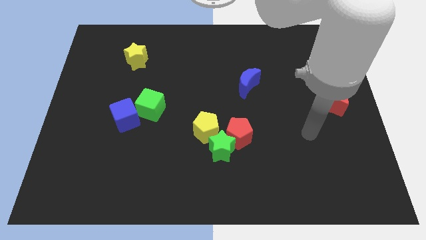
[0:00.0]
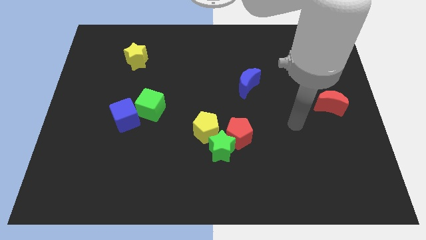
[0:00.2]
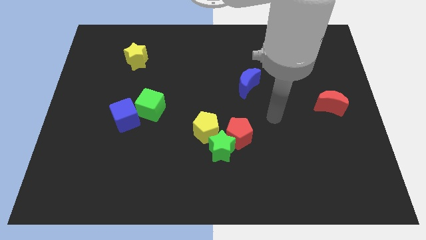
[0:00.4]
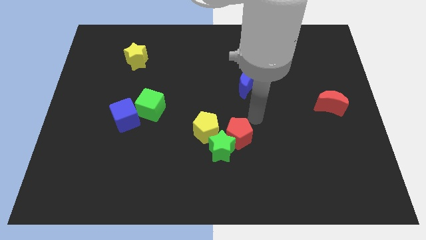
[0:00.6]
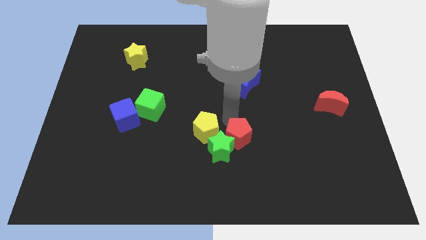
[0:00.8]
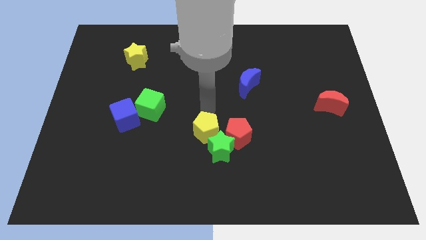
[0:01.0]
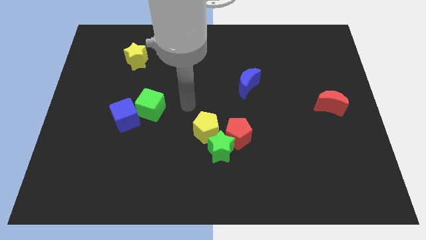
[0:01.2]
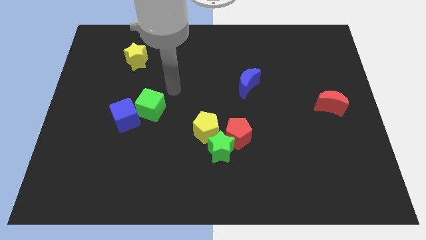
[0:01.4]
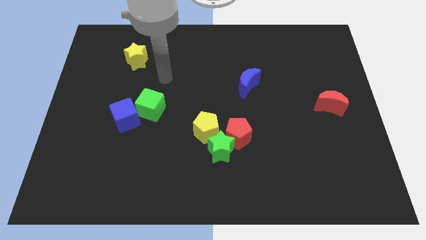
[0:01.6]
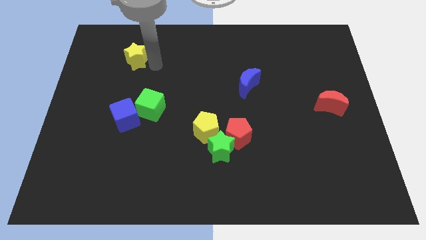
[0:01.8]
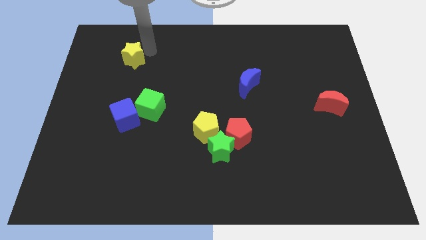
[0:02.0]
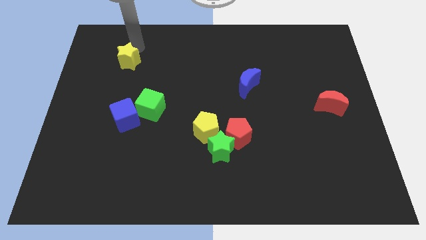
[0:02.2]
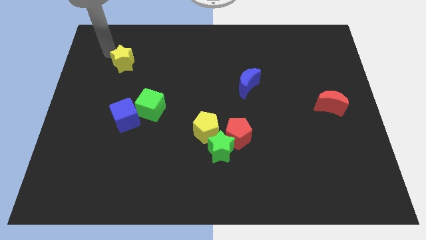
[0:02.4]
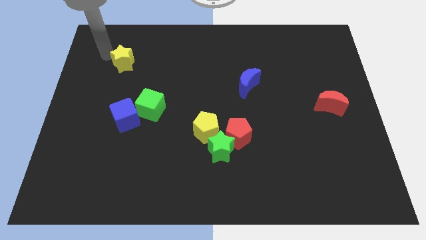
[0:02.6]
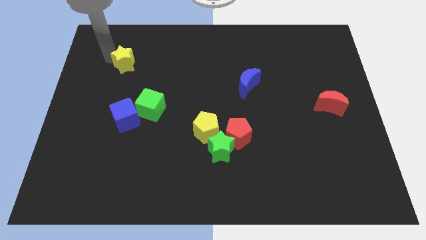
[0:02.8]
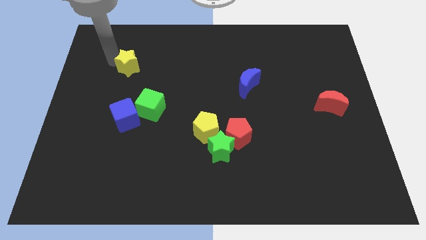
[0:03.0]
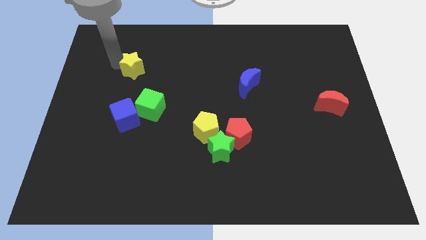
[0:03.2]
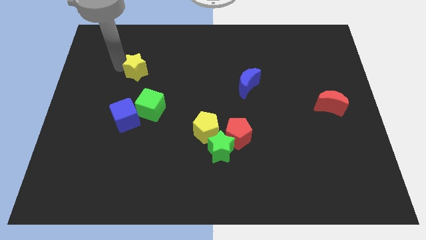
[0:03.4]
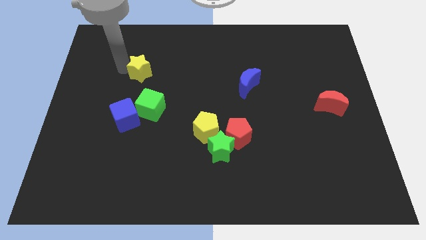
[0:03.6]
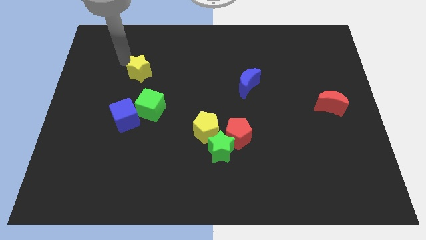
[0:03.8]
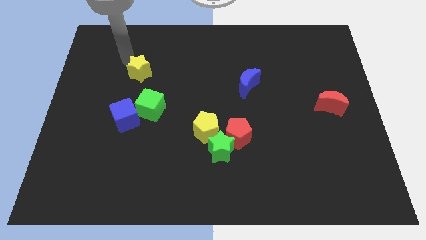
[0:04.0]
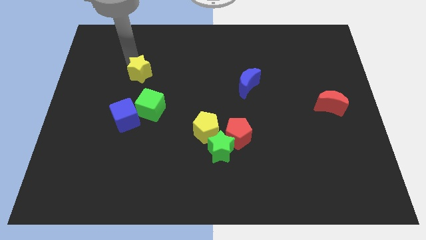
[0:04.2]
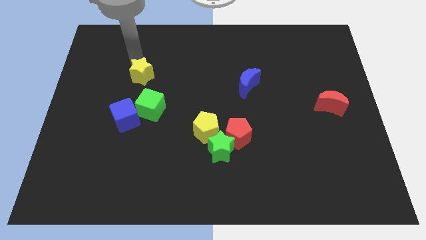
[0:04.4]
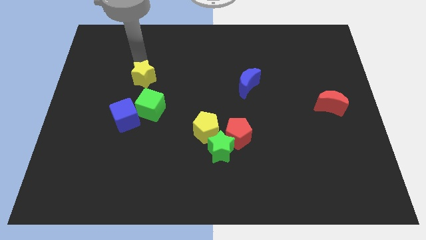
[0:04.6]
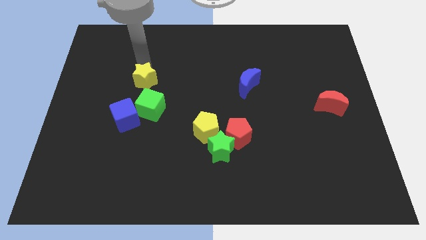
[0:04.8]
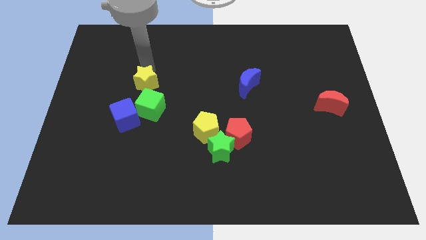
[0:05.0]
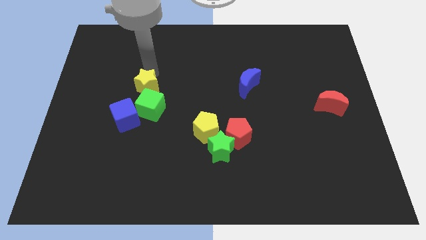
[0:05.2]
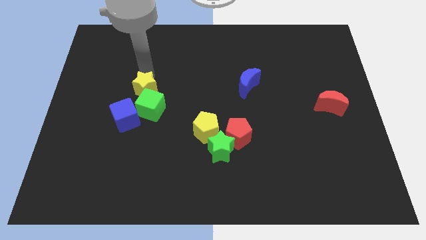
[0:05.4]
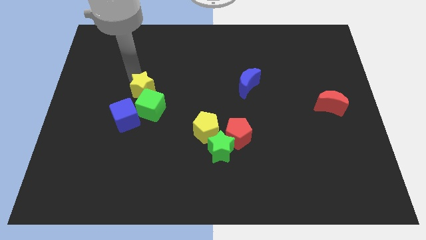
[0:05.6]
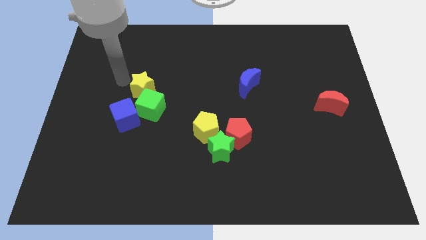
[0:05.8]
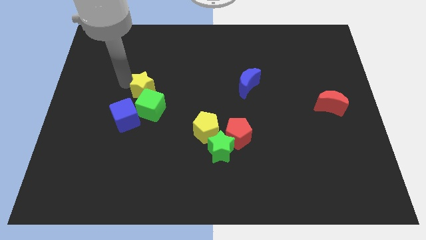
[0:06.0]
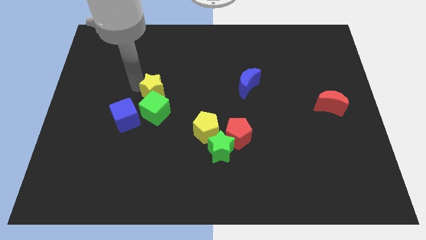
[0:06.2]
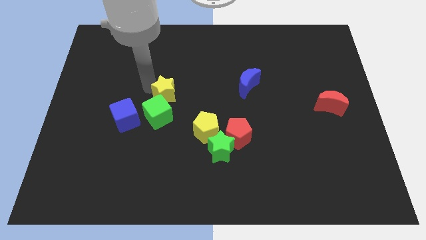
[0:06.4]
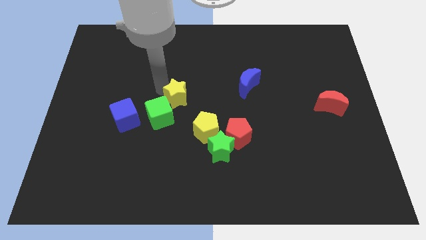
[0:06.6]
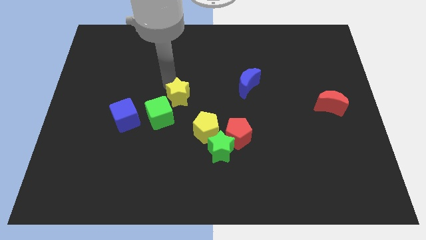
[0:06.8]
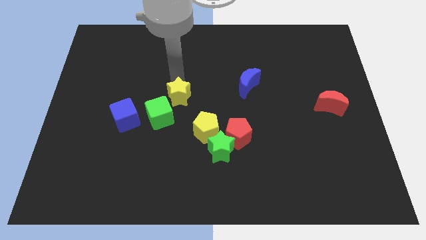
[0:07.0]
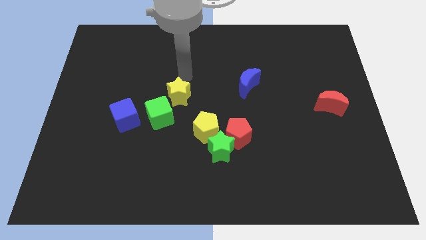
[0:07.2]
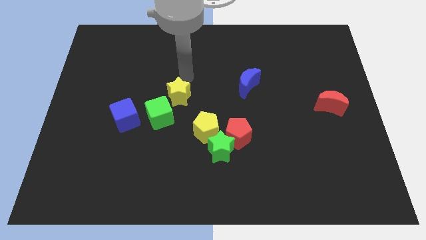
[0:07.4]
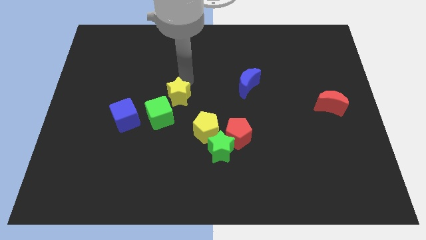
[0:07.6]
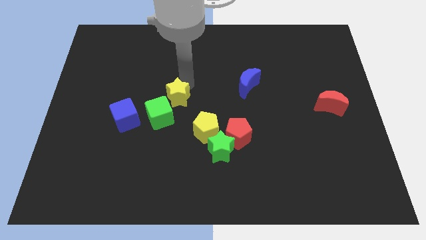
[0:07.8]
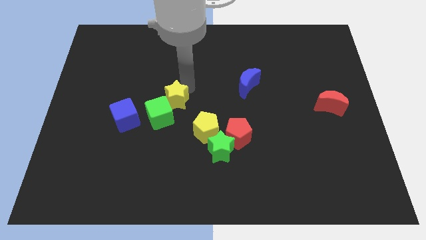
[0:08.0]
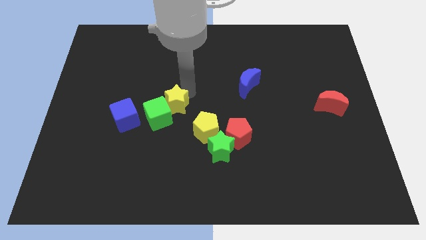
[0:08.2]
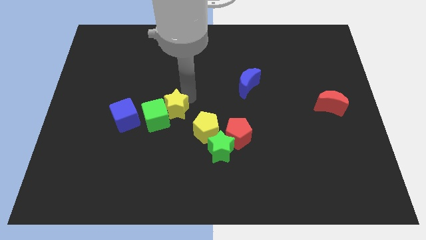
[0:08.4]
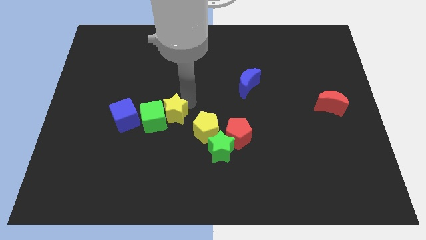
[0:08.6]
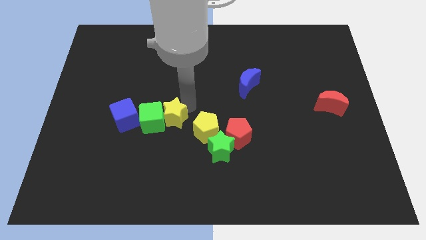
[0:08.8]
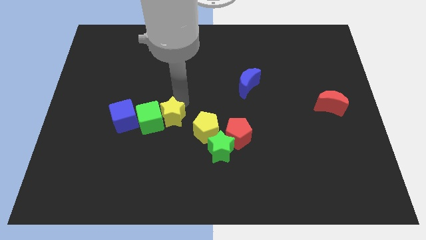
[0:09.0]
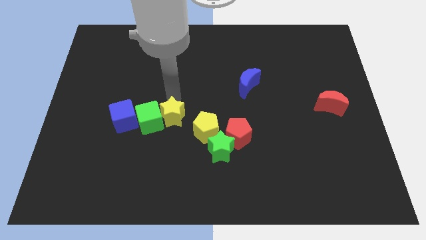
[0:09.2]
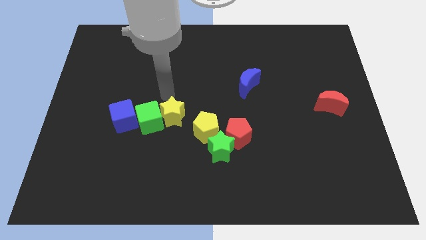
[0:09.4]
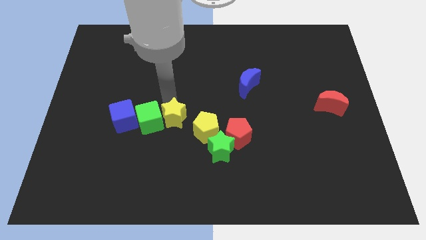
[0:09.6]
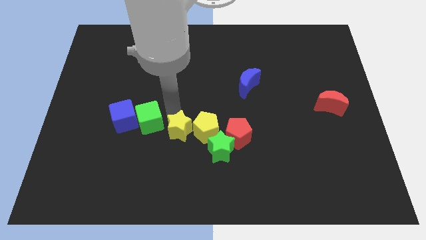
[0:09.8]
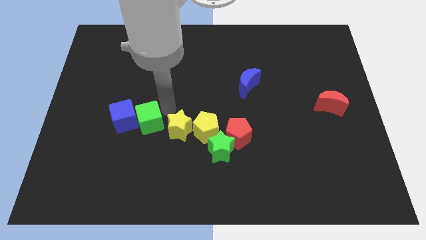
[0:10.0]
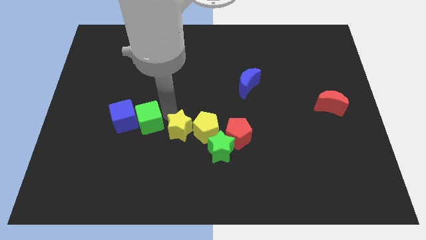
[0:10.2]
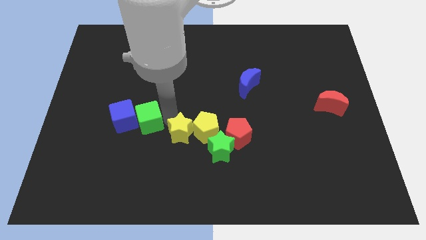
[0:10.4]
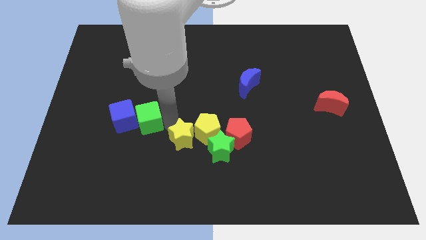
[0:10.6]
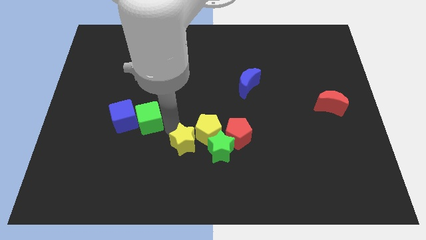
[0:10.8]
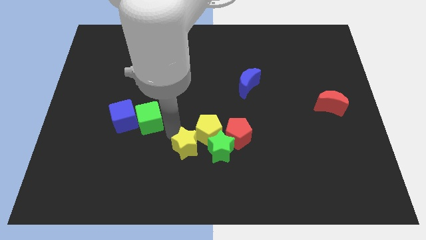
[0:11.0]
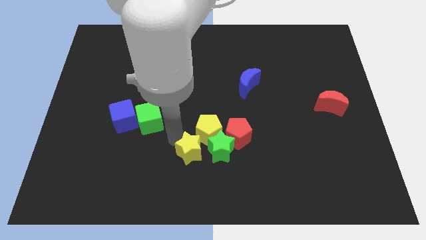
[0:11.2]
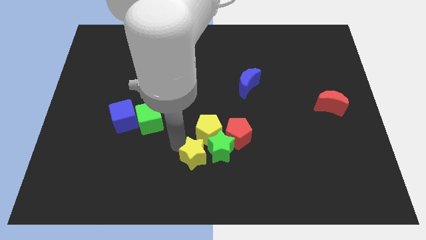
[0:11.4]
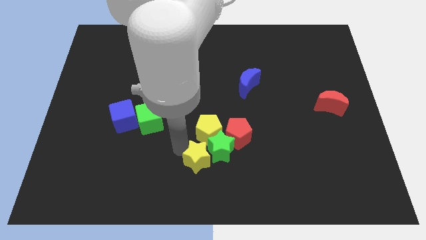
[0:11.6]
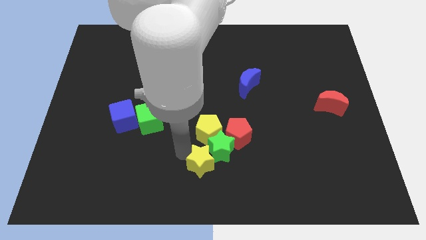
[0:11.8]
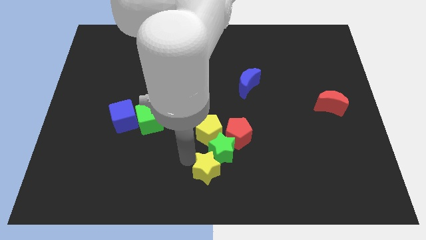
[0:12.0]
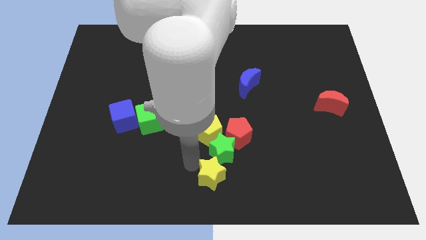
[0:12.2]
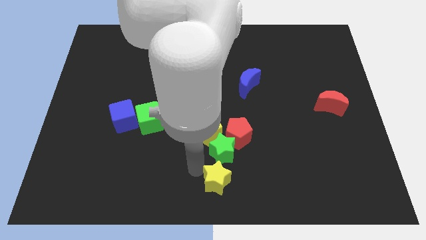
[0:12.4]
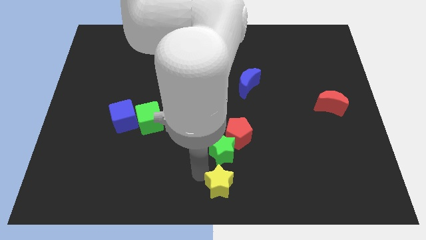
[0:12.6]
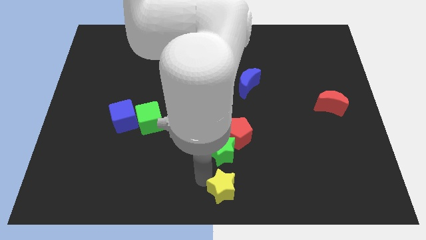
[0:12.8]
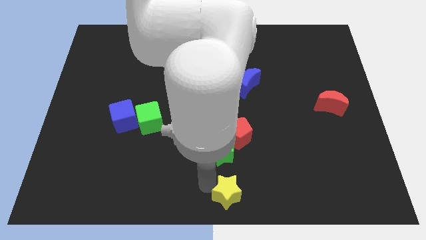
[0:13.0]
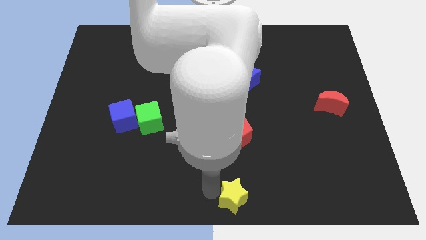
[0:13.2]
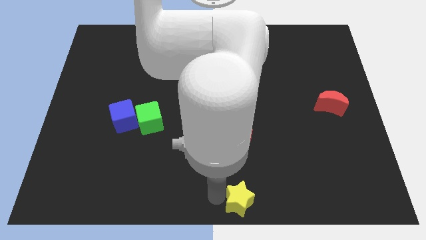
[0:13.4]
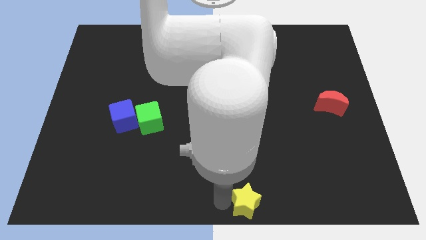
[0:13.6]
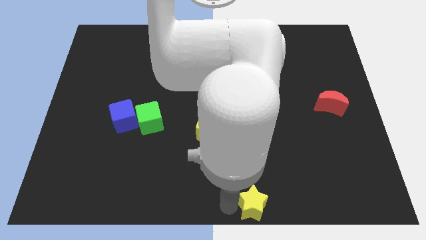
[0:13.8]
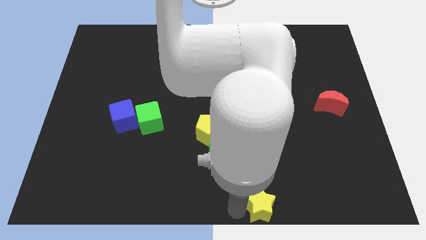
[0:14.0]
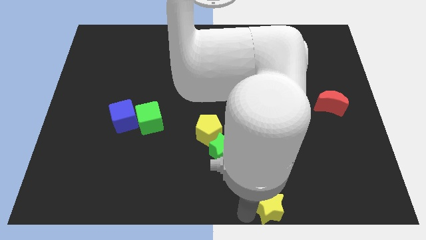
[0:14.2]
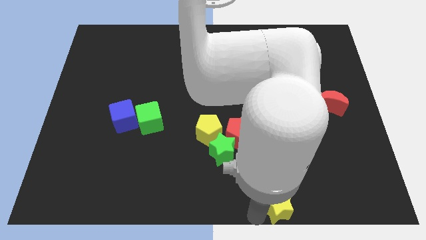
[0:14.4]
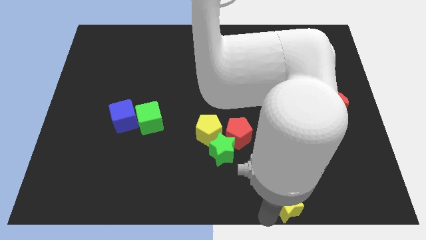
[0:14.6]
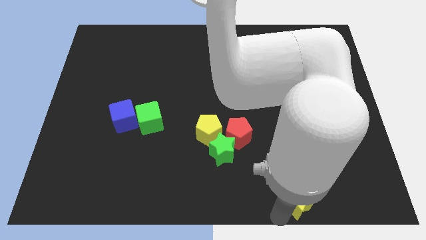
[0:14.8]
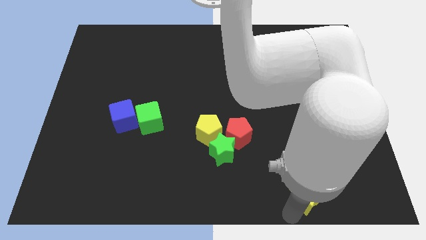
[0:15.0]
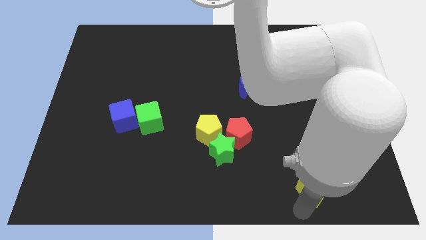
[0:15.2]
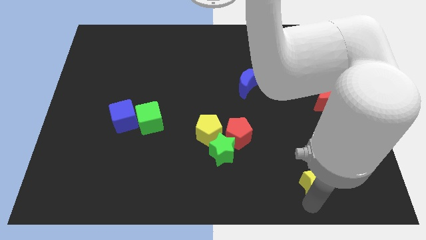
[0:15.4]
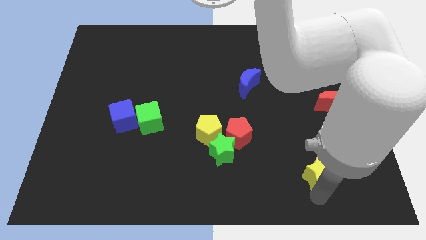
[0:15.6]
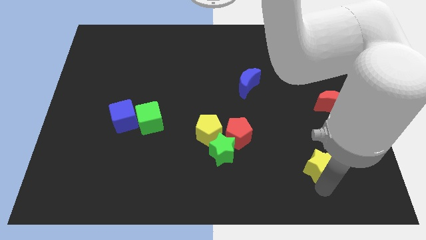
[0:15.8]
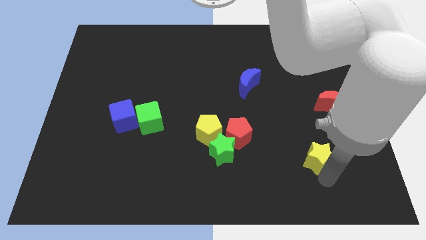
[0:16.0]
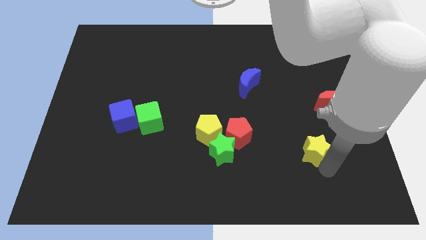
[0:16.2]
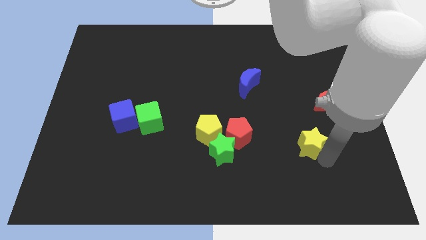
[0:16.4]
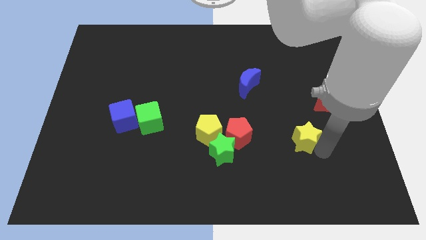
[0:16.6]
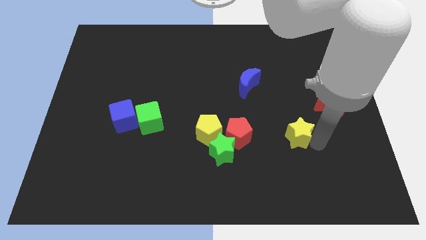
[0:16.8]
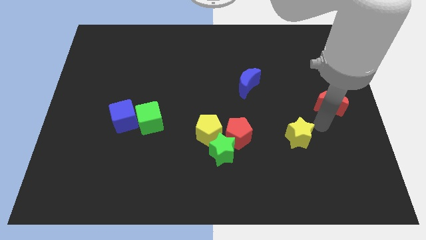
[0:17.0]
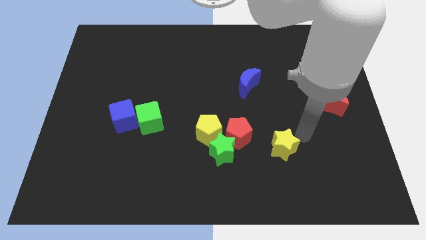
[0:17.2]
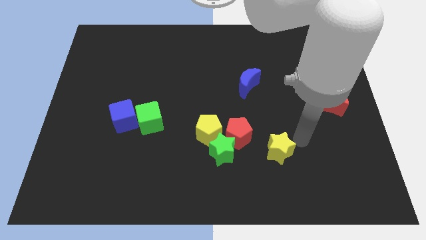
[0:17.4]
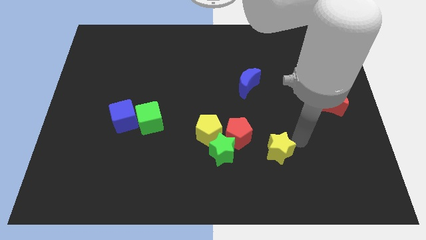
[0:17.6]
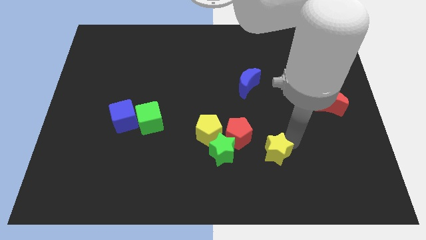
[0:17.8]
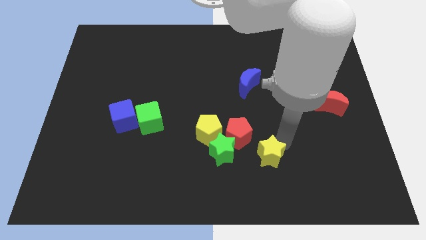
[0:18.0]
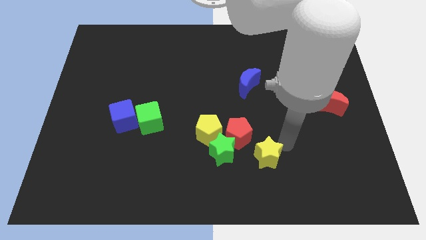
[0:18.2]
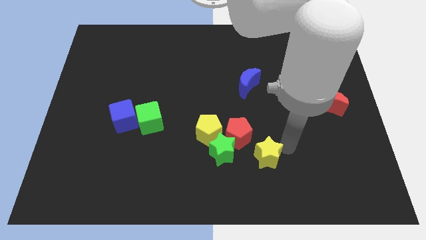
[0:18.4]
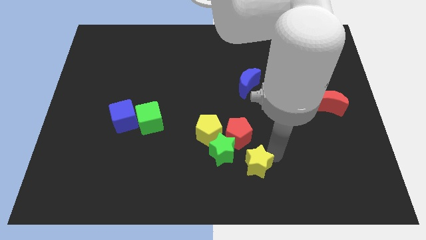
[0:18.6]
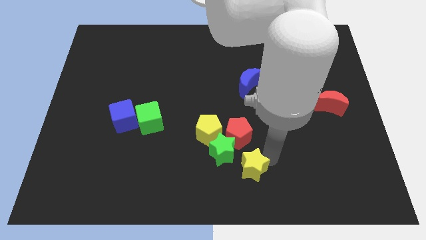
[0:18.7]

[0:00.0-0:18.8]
slide the yellow star to the bottom right of the yellow pentagon
